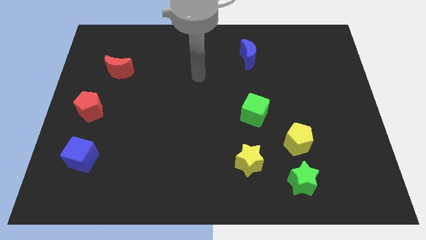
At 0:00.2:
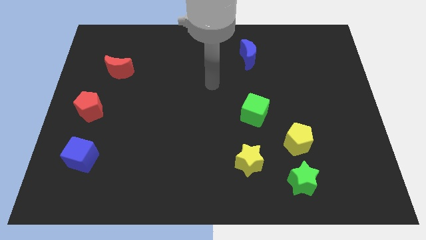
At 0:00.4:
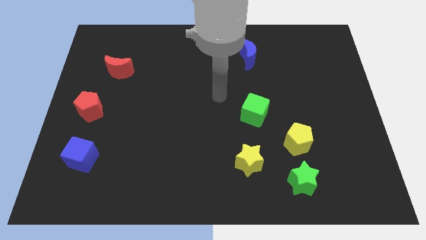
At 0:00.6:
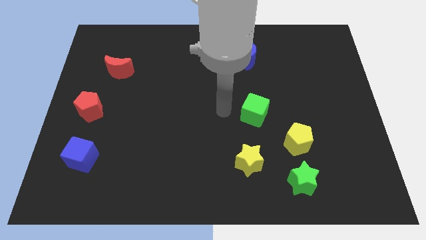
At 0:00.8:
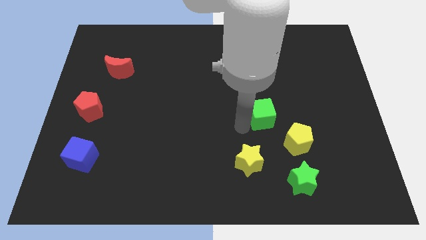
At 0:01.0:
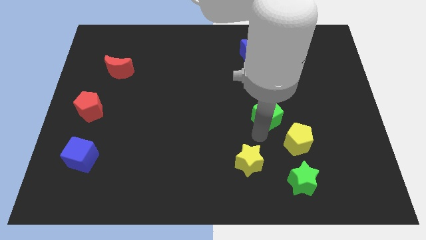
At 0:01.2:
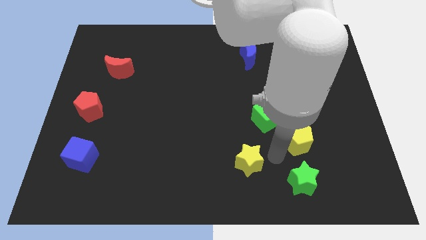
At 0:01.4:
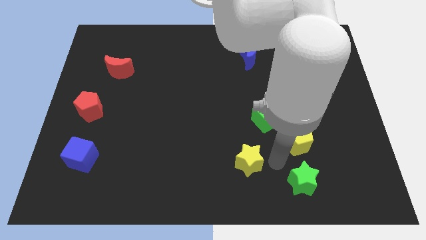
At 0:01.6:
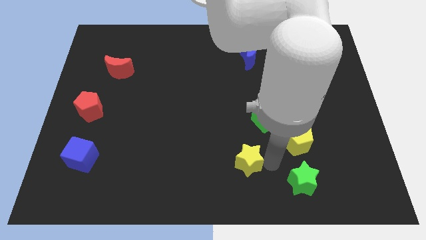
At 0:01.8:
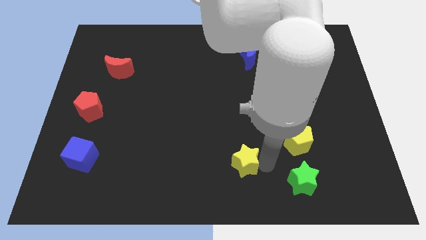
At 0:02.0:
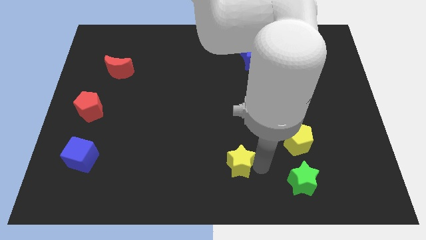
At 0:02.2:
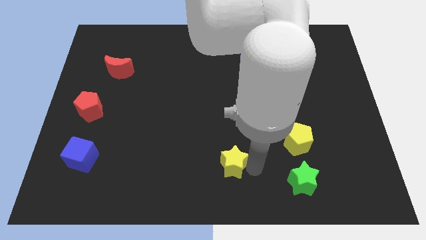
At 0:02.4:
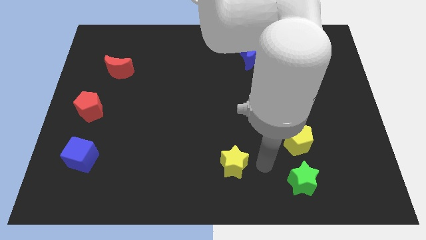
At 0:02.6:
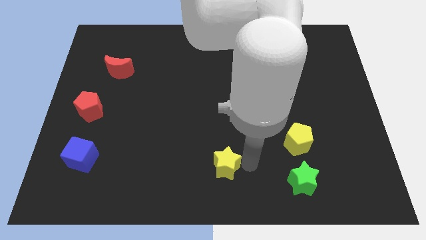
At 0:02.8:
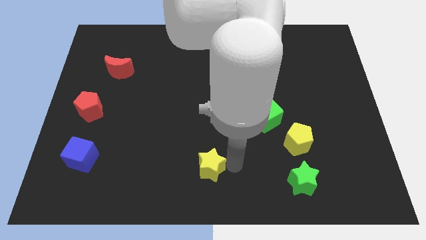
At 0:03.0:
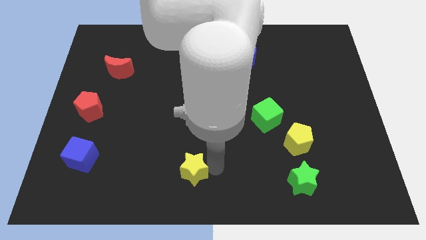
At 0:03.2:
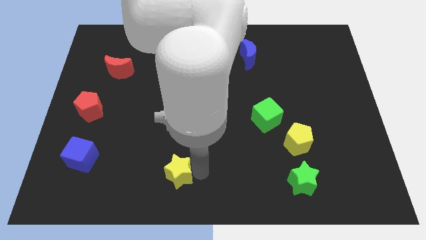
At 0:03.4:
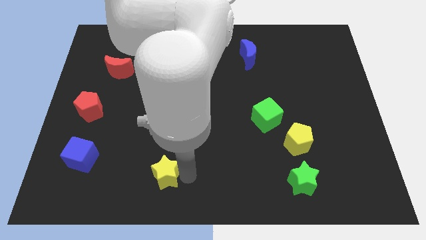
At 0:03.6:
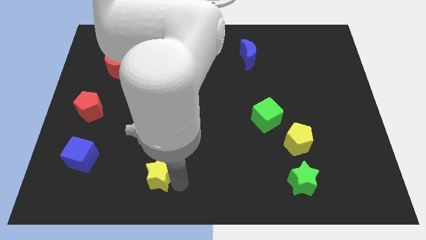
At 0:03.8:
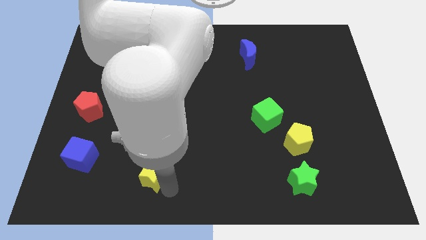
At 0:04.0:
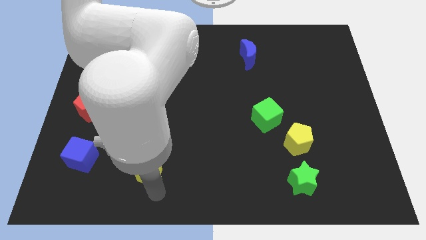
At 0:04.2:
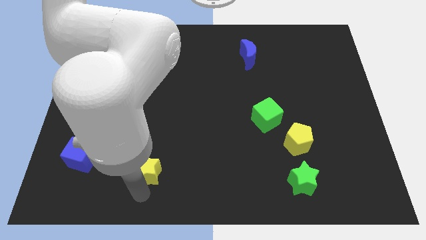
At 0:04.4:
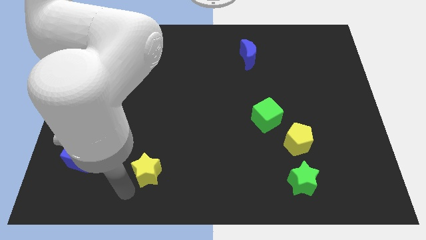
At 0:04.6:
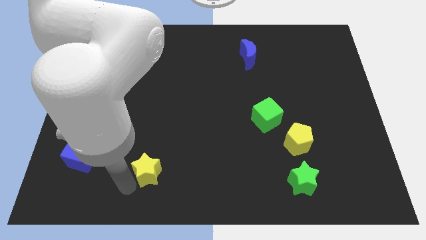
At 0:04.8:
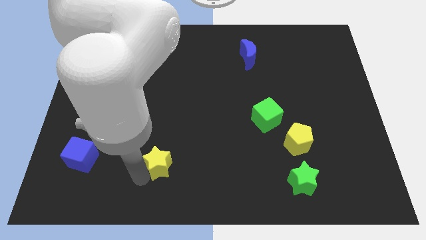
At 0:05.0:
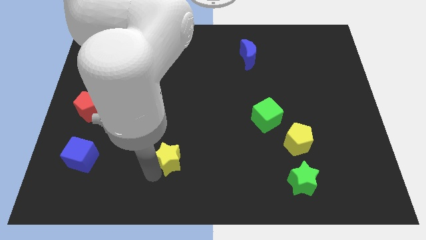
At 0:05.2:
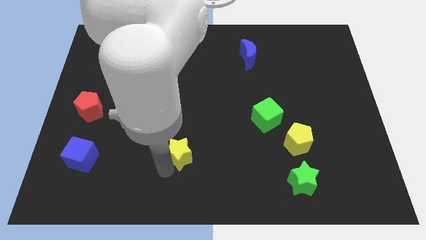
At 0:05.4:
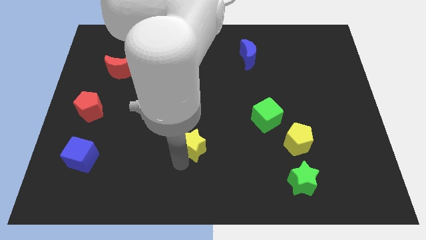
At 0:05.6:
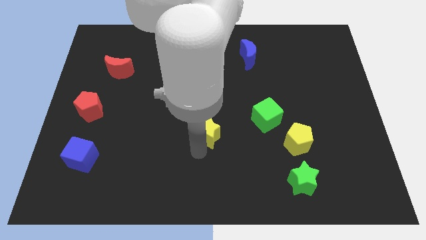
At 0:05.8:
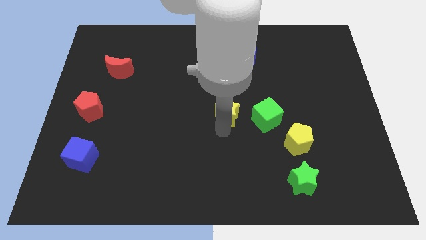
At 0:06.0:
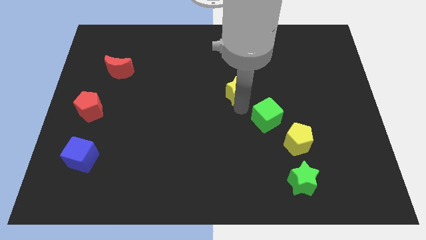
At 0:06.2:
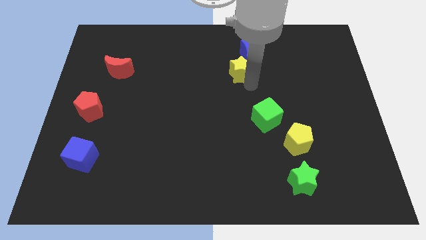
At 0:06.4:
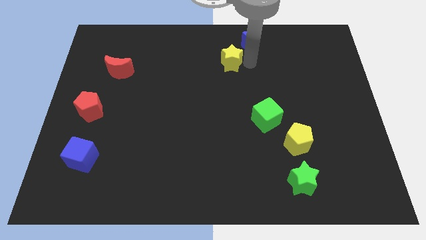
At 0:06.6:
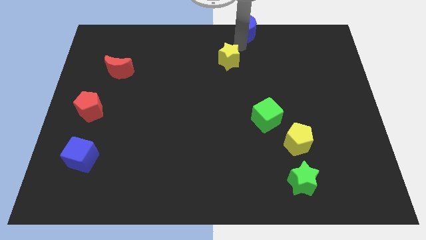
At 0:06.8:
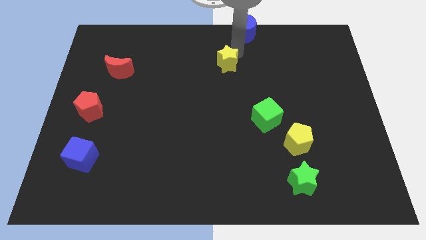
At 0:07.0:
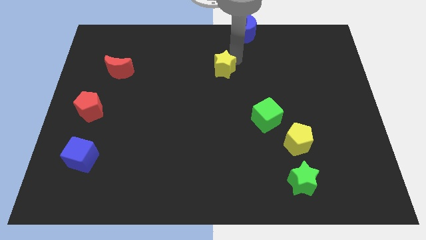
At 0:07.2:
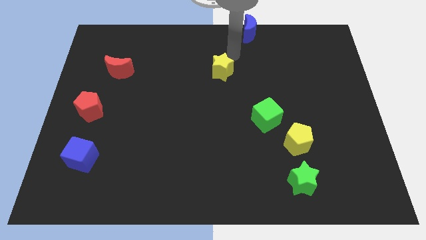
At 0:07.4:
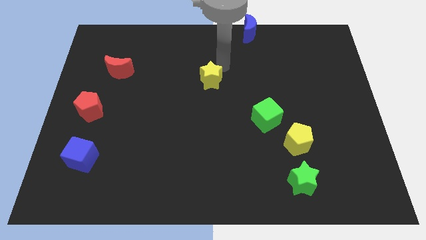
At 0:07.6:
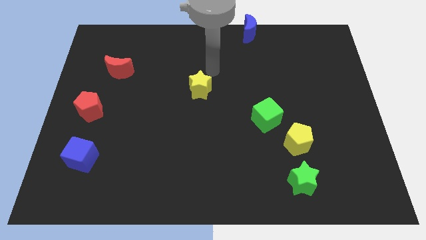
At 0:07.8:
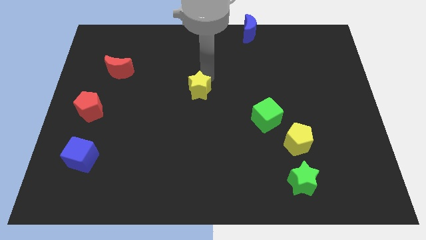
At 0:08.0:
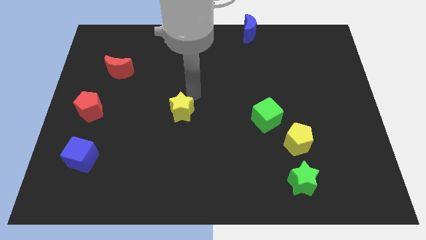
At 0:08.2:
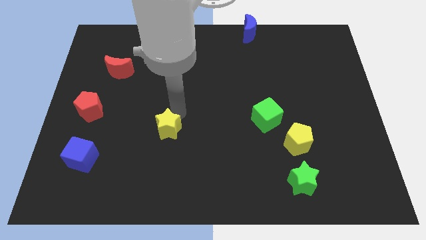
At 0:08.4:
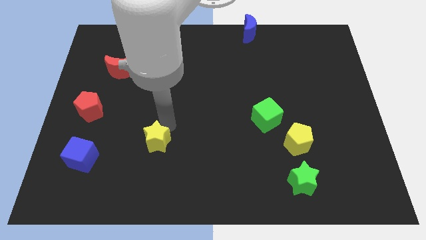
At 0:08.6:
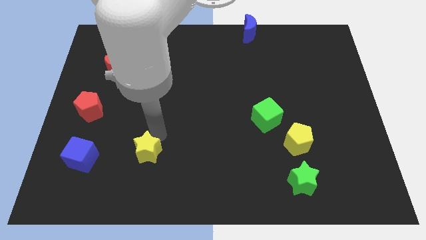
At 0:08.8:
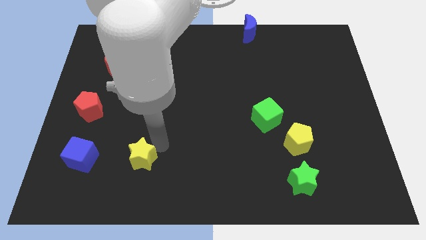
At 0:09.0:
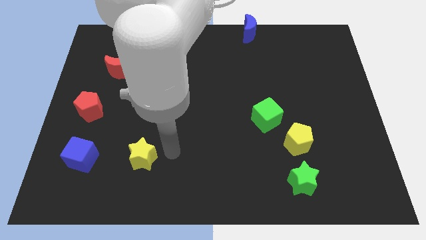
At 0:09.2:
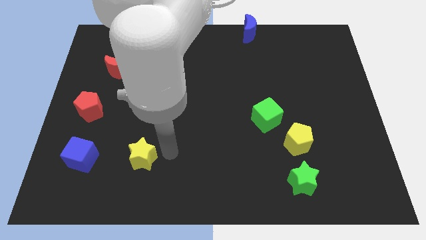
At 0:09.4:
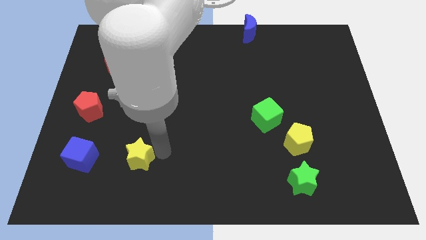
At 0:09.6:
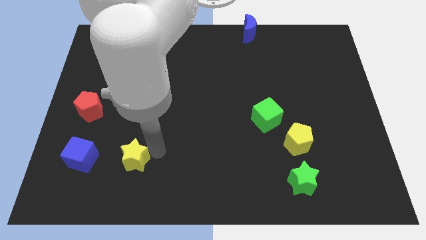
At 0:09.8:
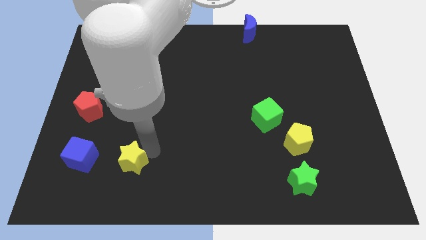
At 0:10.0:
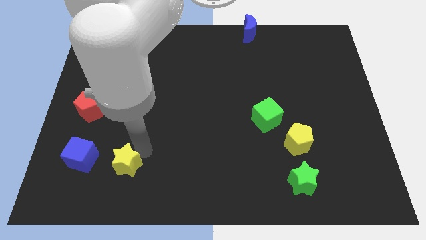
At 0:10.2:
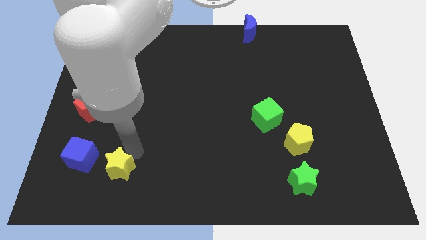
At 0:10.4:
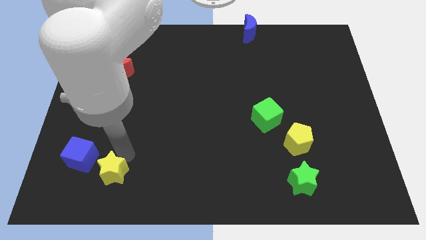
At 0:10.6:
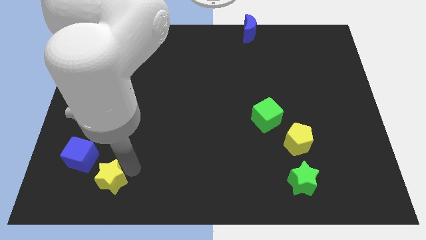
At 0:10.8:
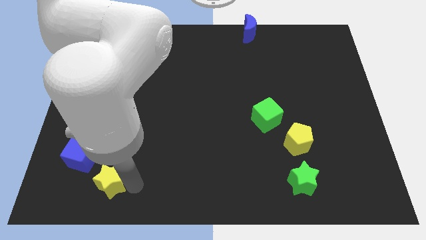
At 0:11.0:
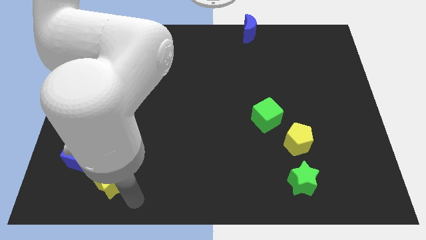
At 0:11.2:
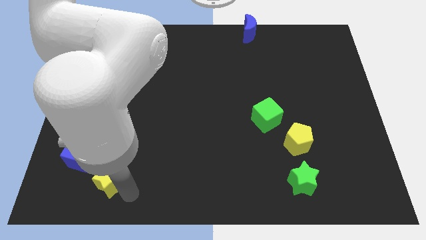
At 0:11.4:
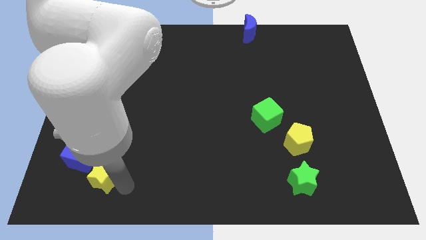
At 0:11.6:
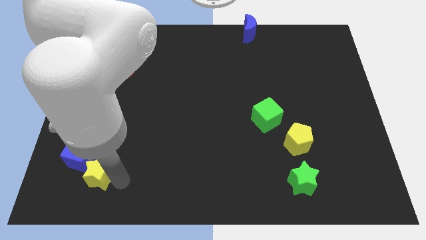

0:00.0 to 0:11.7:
put the yellow star close to the blue cube
